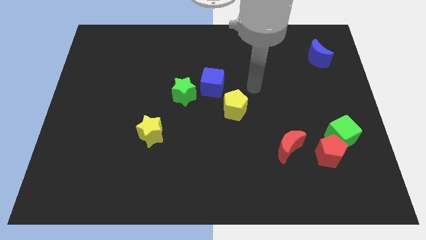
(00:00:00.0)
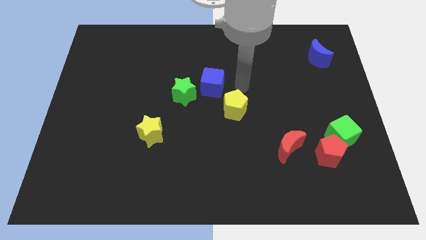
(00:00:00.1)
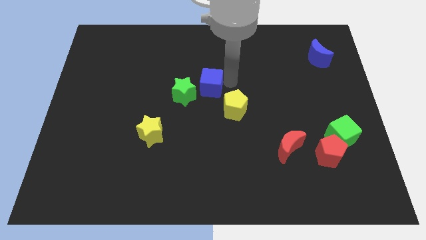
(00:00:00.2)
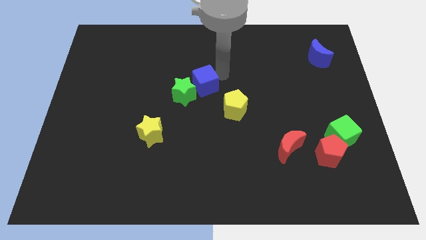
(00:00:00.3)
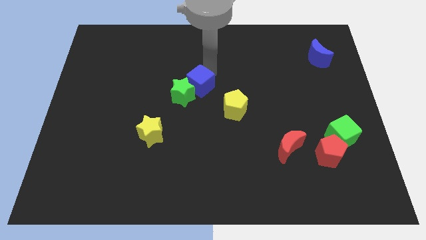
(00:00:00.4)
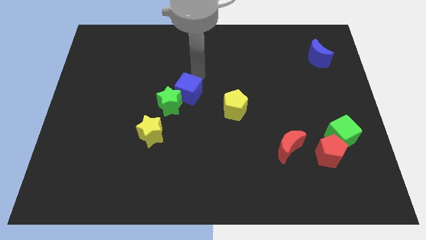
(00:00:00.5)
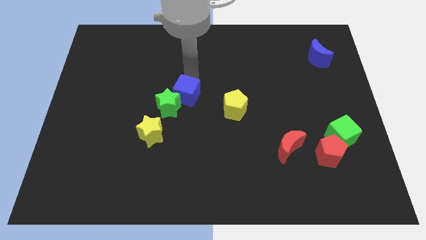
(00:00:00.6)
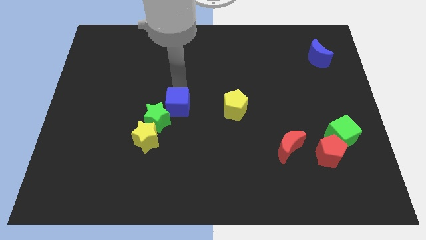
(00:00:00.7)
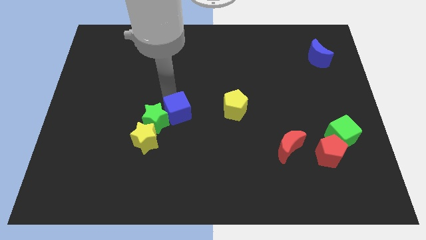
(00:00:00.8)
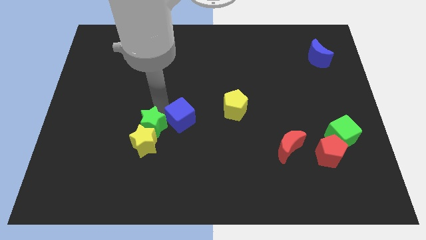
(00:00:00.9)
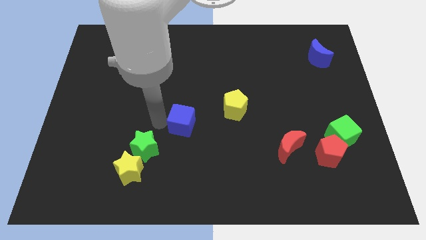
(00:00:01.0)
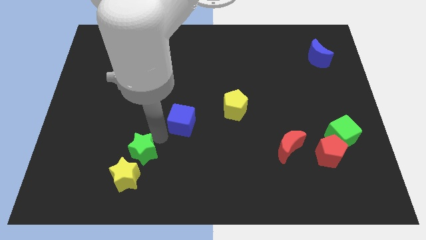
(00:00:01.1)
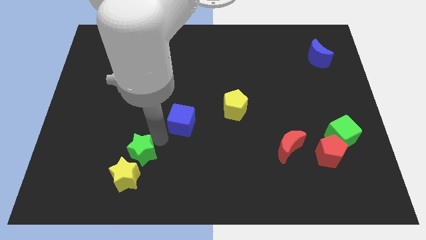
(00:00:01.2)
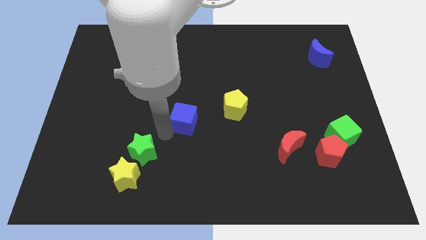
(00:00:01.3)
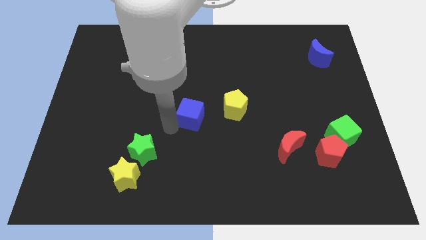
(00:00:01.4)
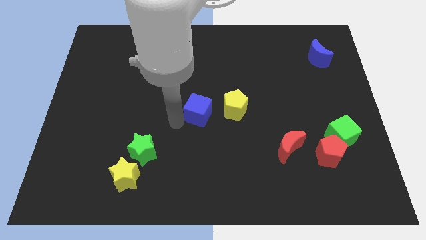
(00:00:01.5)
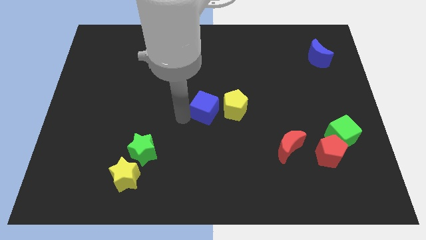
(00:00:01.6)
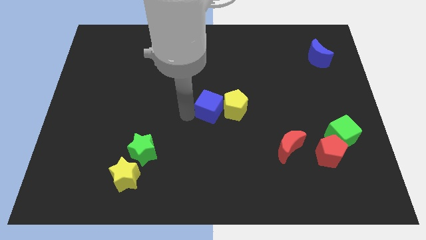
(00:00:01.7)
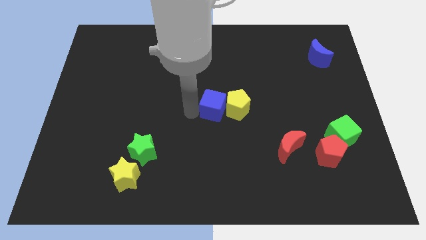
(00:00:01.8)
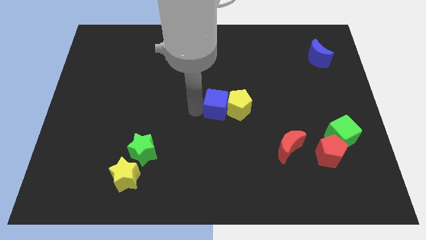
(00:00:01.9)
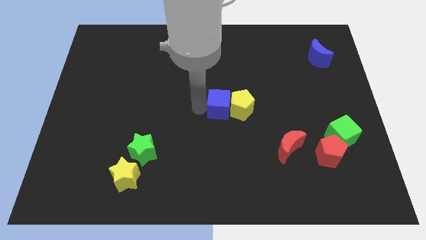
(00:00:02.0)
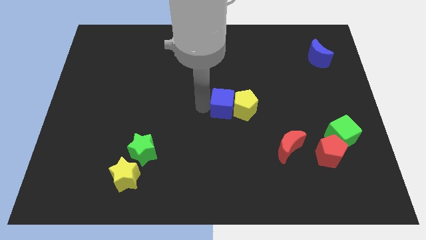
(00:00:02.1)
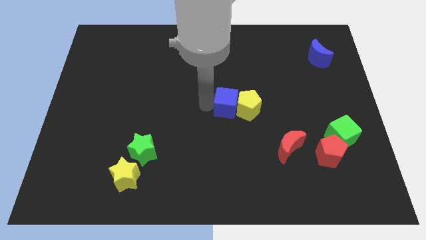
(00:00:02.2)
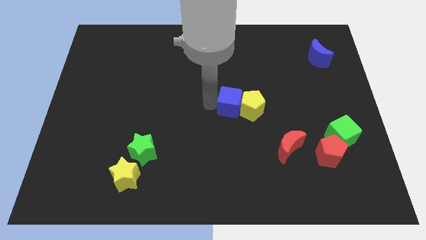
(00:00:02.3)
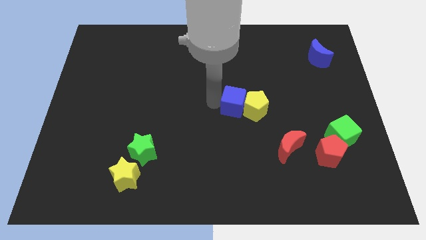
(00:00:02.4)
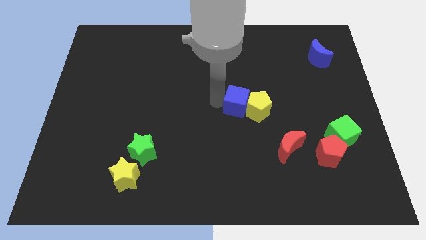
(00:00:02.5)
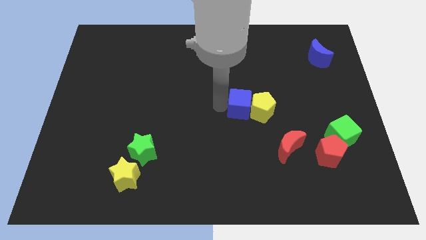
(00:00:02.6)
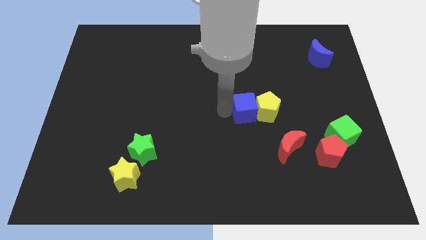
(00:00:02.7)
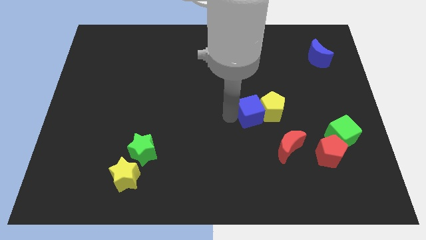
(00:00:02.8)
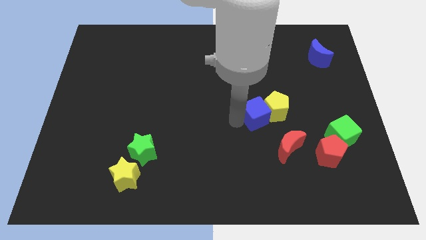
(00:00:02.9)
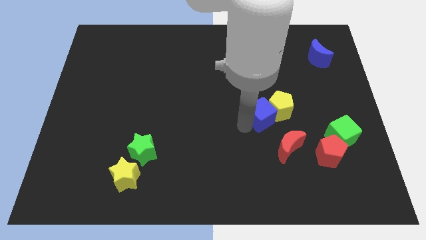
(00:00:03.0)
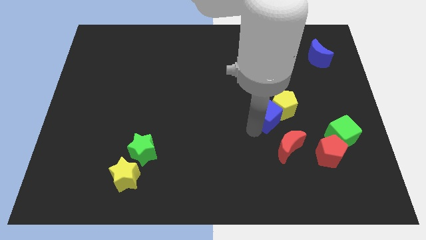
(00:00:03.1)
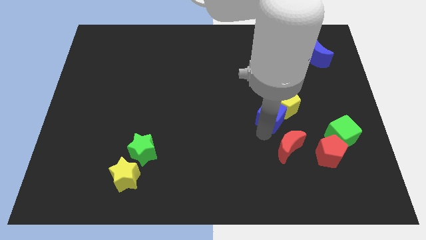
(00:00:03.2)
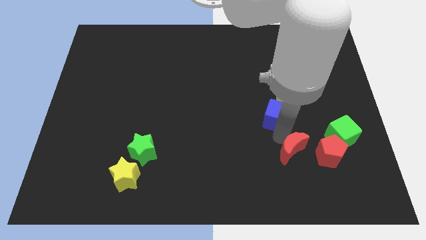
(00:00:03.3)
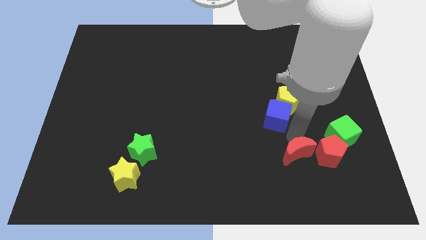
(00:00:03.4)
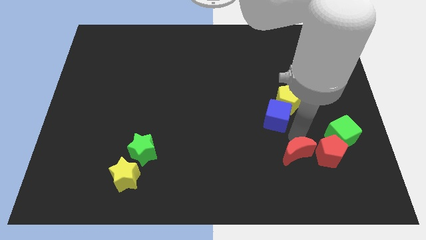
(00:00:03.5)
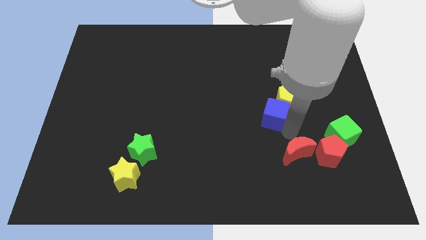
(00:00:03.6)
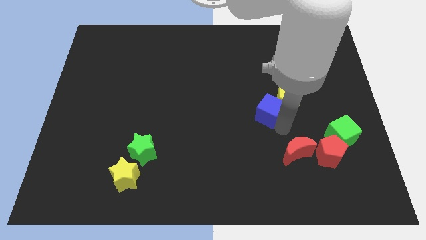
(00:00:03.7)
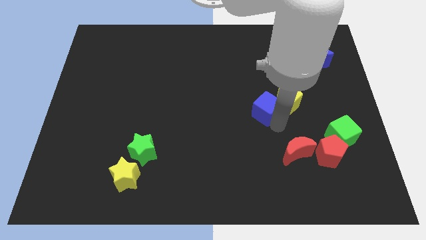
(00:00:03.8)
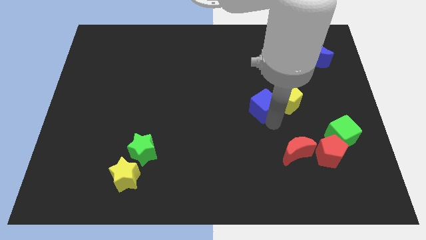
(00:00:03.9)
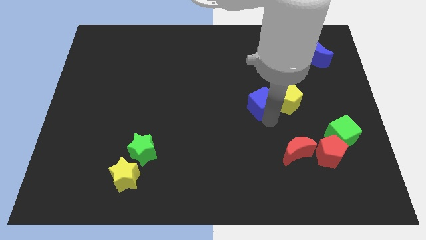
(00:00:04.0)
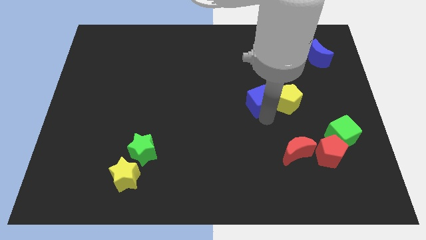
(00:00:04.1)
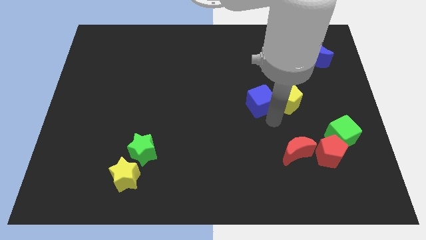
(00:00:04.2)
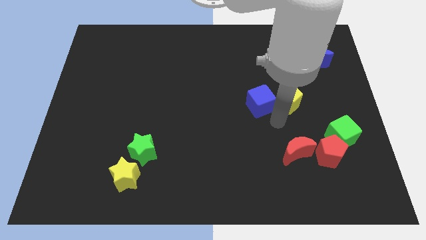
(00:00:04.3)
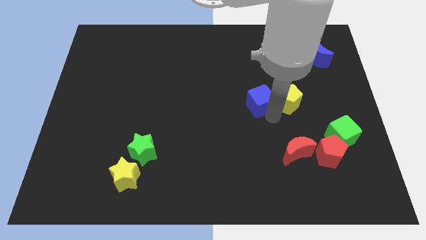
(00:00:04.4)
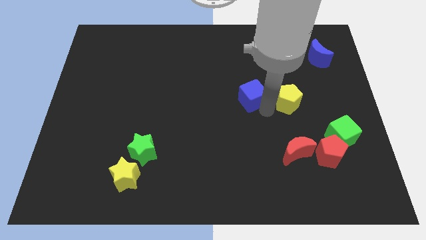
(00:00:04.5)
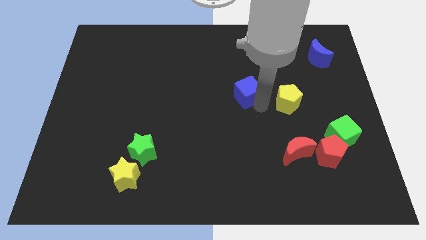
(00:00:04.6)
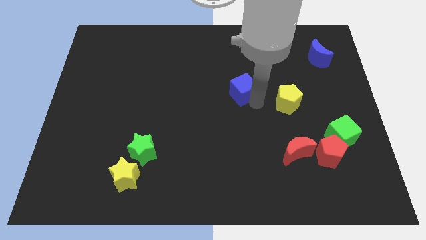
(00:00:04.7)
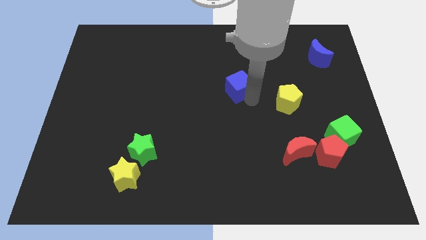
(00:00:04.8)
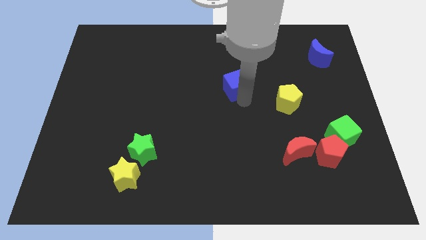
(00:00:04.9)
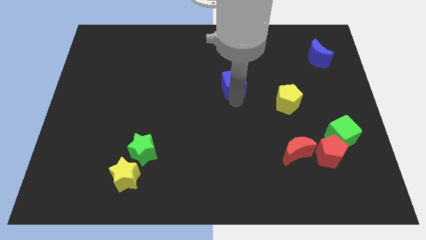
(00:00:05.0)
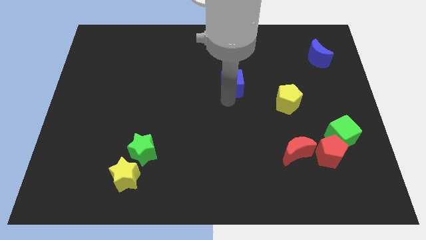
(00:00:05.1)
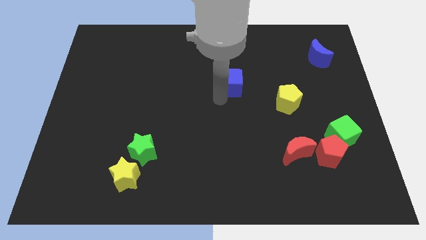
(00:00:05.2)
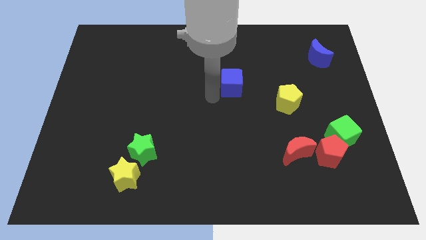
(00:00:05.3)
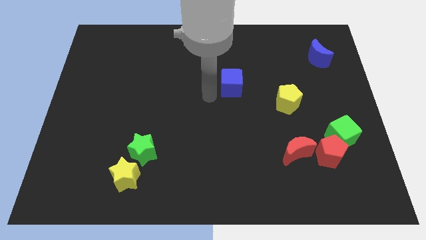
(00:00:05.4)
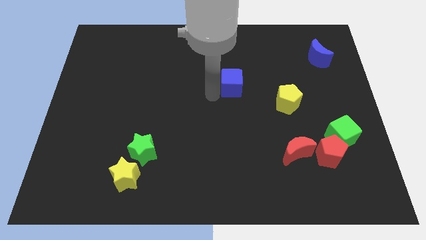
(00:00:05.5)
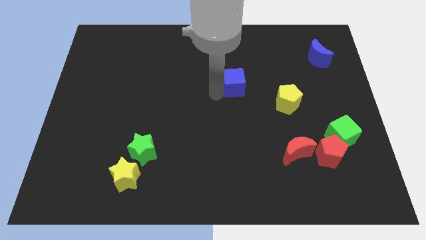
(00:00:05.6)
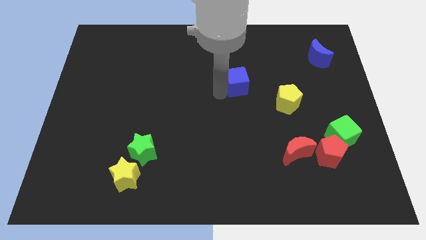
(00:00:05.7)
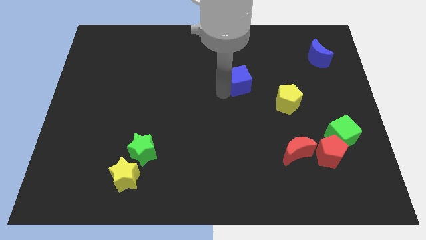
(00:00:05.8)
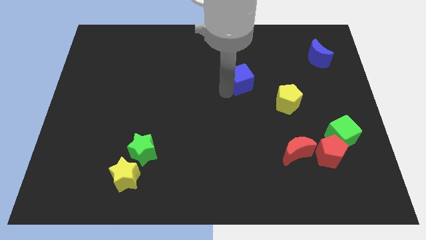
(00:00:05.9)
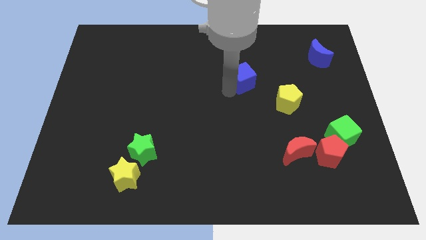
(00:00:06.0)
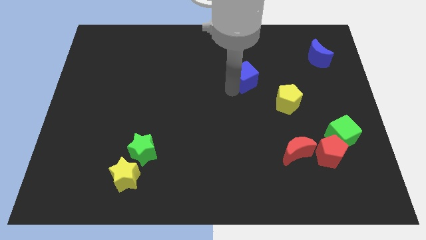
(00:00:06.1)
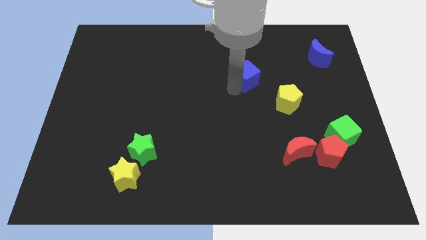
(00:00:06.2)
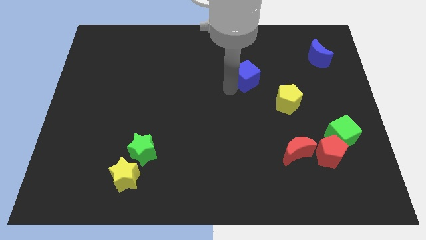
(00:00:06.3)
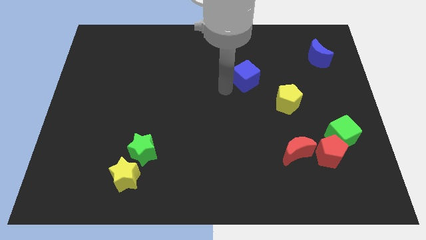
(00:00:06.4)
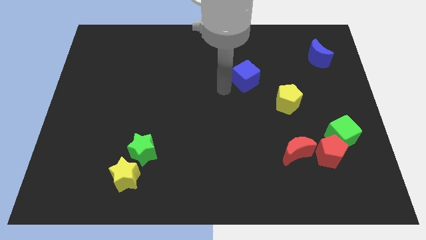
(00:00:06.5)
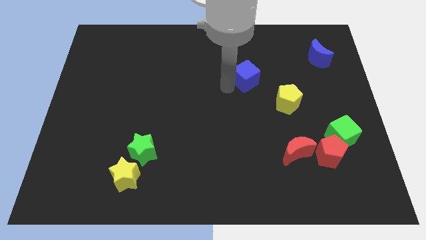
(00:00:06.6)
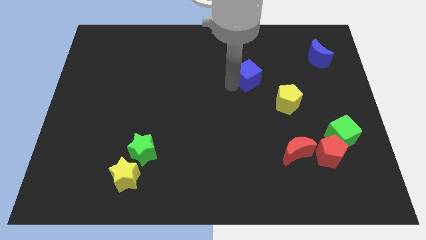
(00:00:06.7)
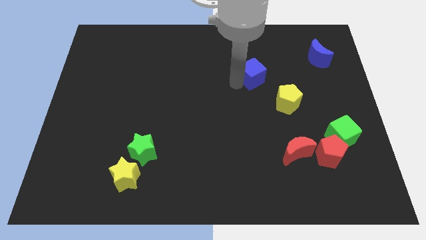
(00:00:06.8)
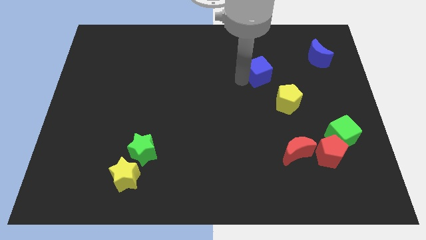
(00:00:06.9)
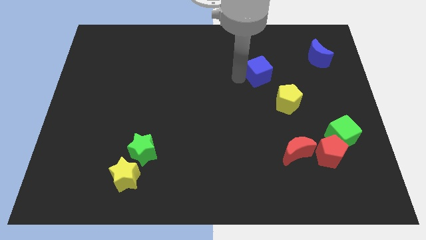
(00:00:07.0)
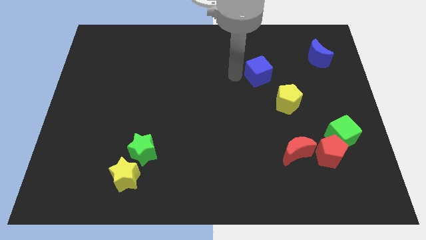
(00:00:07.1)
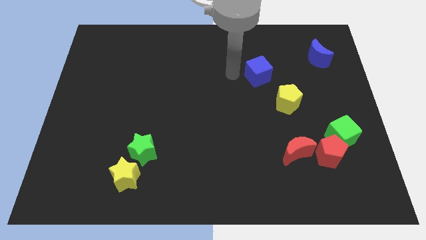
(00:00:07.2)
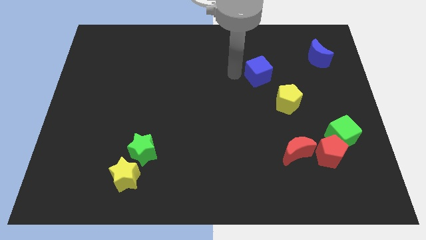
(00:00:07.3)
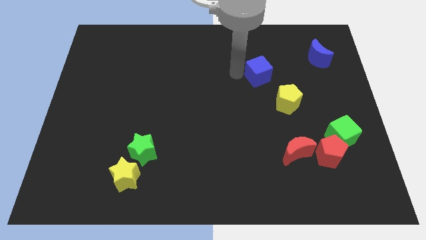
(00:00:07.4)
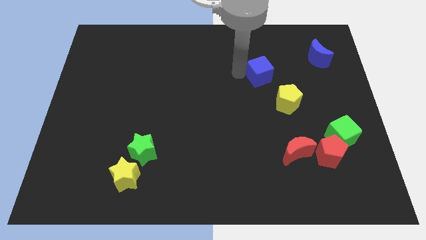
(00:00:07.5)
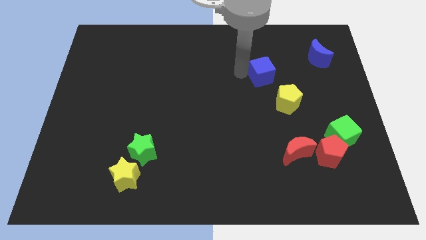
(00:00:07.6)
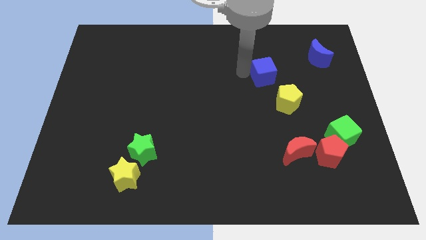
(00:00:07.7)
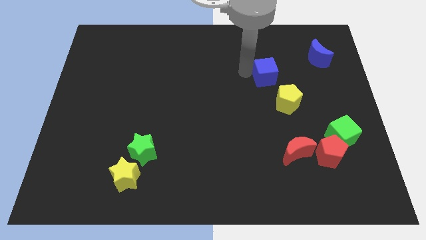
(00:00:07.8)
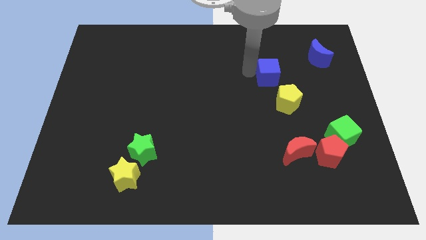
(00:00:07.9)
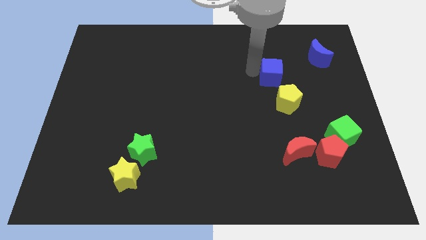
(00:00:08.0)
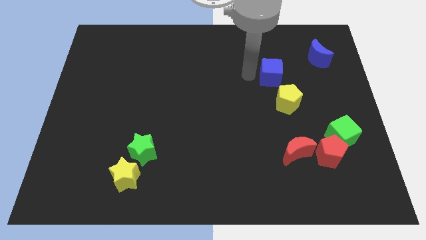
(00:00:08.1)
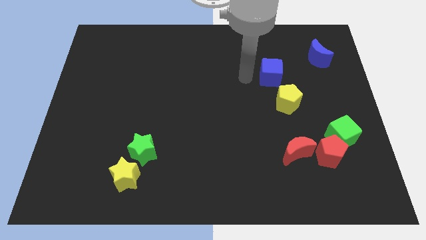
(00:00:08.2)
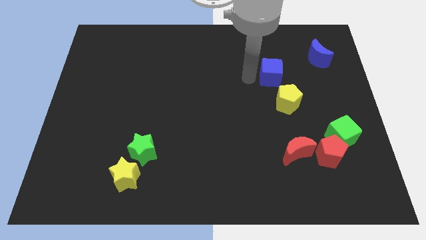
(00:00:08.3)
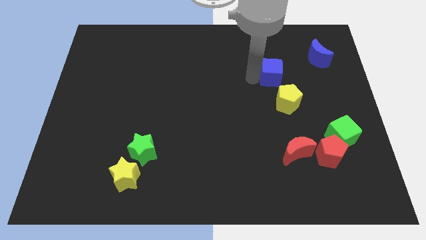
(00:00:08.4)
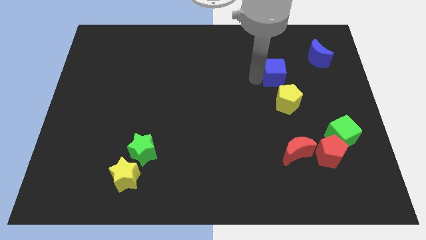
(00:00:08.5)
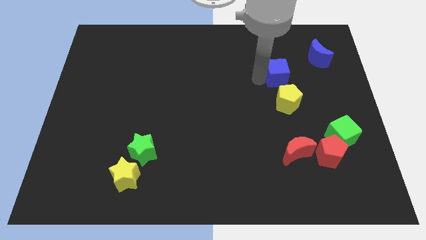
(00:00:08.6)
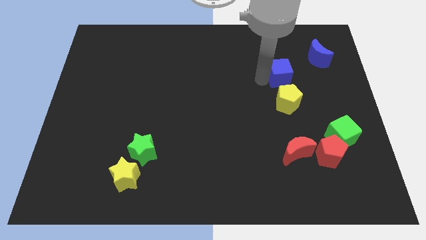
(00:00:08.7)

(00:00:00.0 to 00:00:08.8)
move the blue cube to the bottom left of the blue moon
